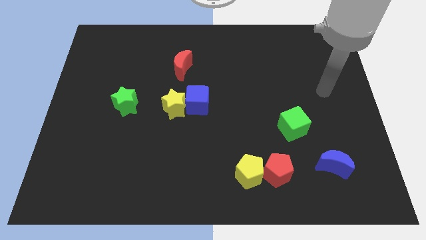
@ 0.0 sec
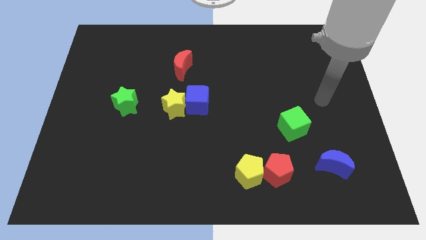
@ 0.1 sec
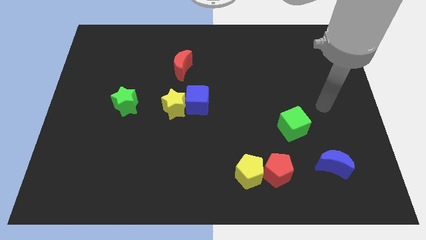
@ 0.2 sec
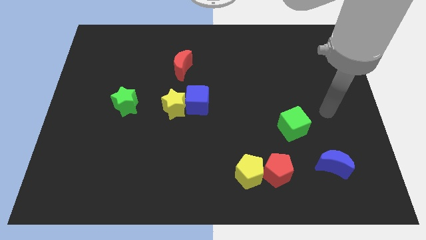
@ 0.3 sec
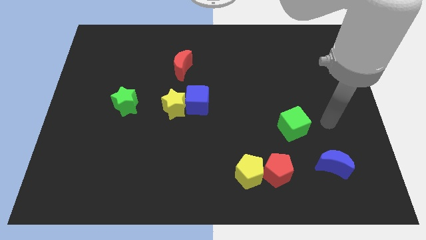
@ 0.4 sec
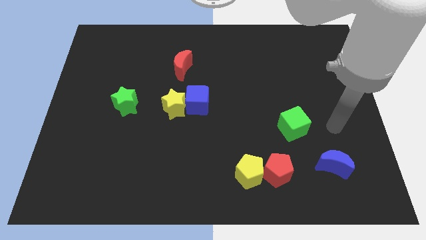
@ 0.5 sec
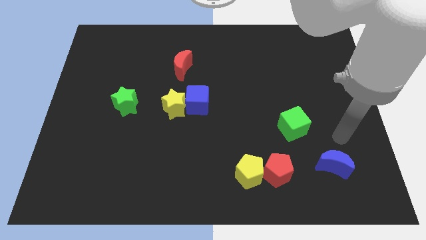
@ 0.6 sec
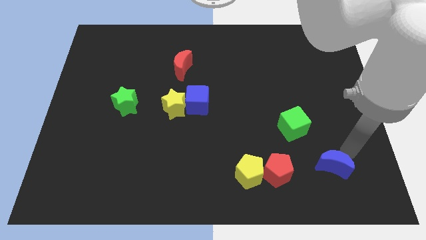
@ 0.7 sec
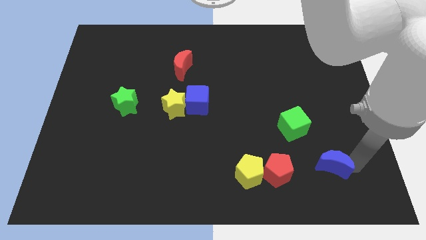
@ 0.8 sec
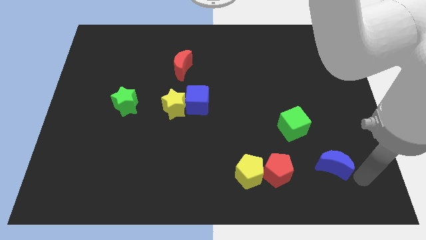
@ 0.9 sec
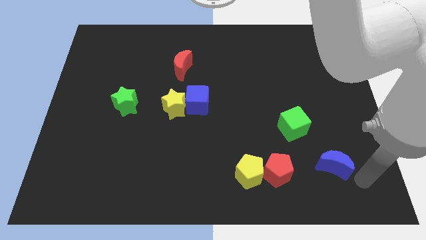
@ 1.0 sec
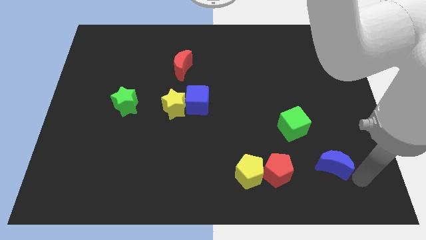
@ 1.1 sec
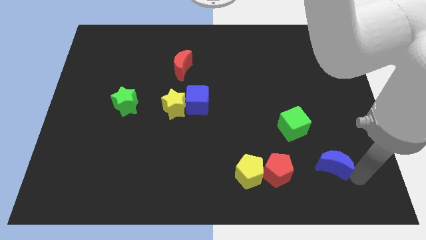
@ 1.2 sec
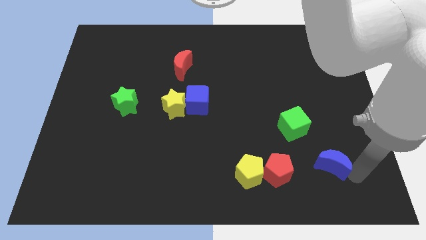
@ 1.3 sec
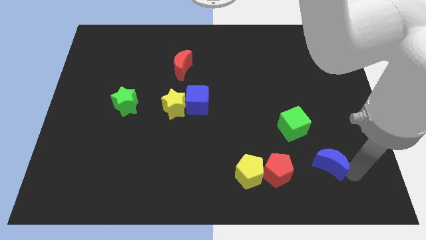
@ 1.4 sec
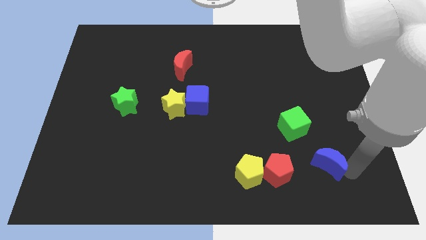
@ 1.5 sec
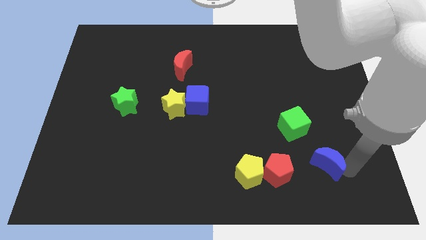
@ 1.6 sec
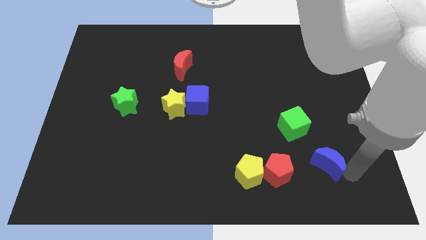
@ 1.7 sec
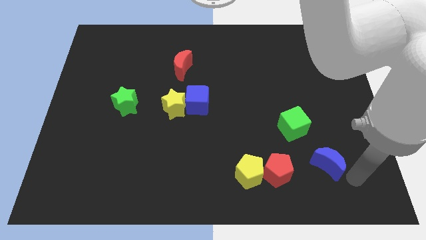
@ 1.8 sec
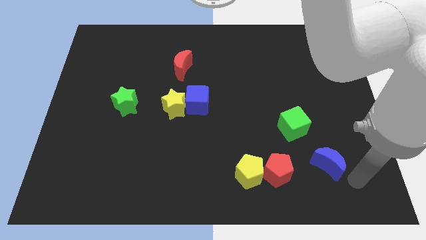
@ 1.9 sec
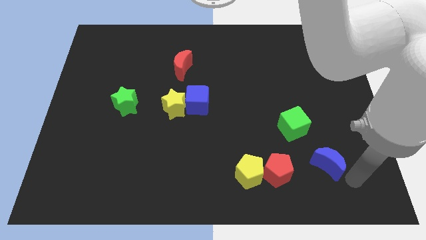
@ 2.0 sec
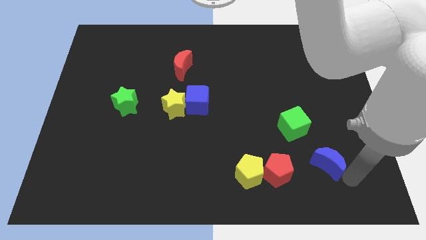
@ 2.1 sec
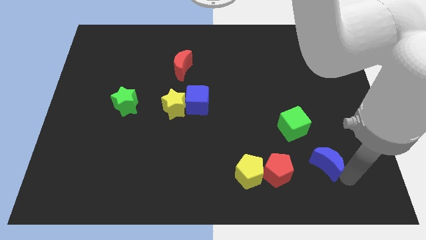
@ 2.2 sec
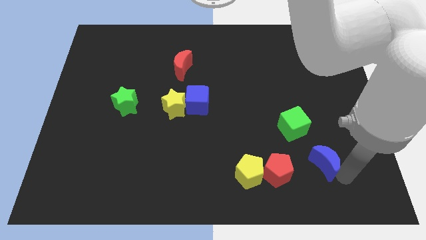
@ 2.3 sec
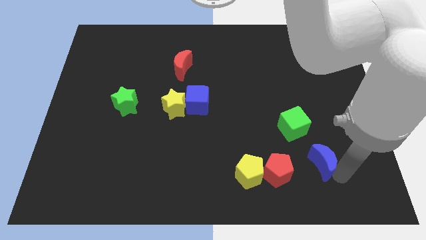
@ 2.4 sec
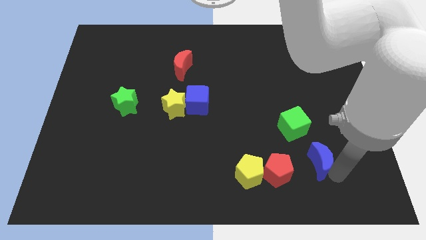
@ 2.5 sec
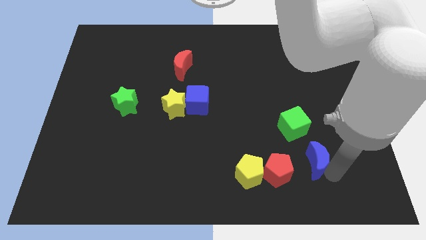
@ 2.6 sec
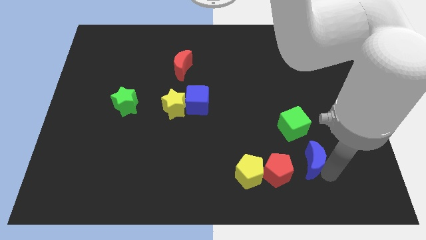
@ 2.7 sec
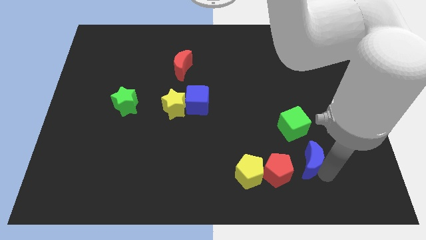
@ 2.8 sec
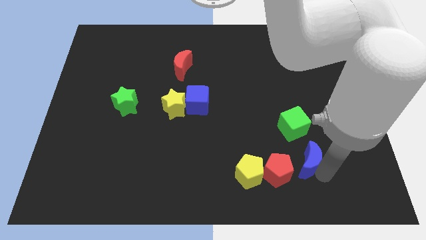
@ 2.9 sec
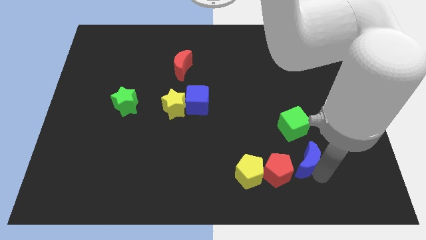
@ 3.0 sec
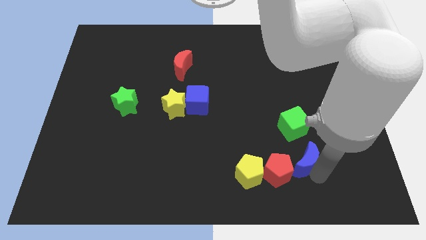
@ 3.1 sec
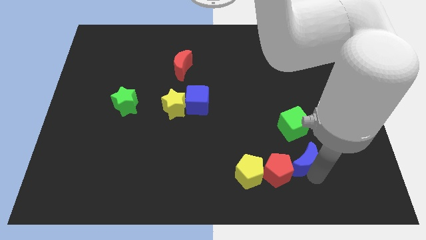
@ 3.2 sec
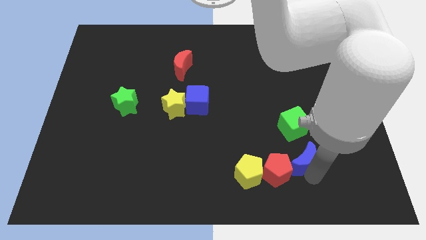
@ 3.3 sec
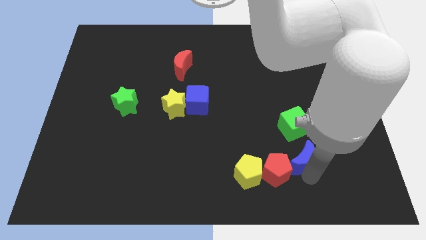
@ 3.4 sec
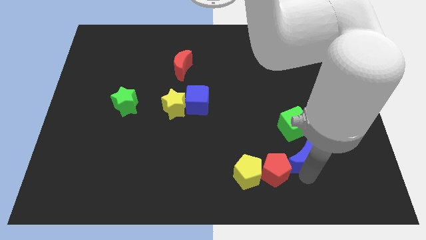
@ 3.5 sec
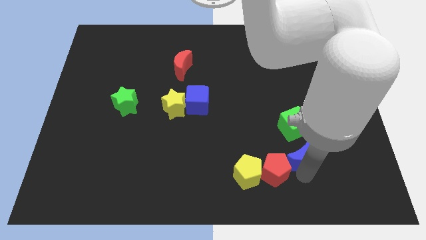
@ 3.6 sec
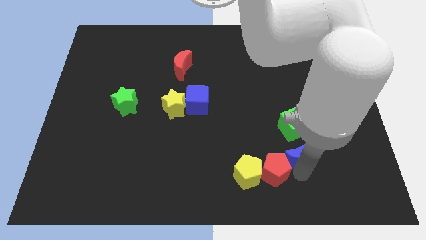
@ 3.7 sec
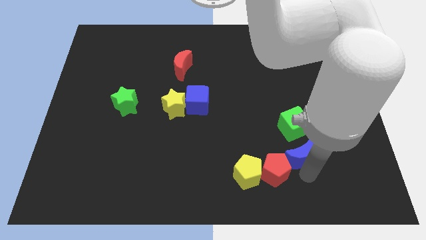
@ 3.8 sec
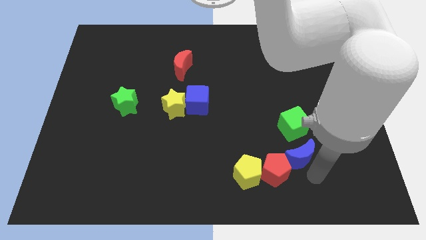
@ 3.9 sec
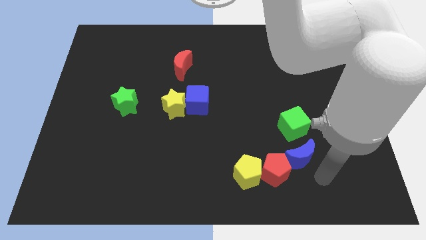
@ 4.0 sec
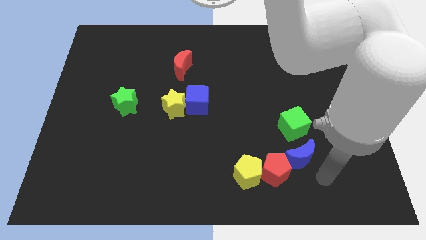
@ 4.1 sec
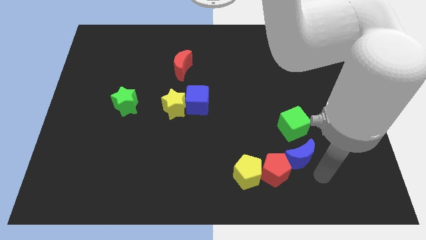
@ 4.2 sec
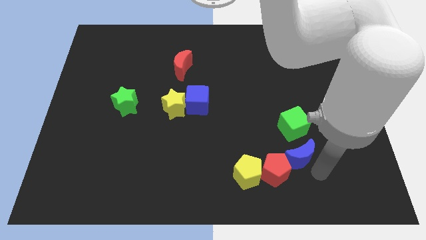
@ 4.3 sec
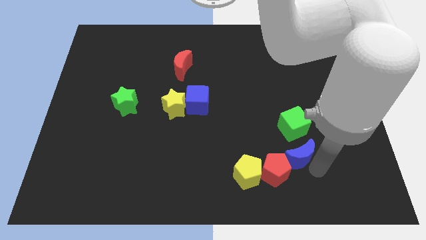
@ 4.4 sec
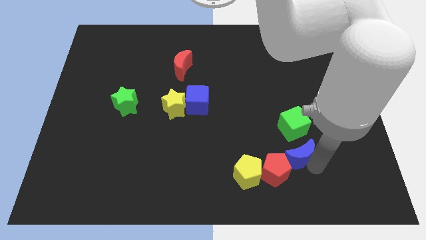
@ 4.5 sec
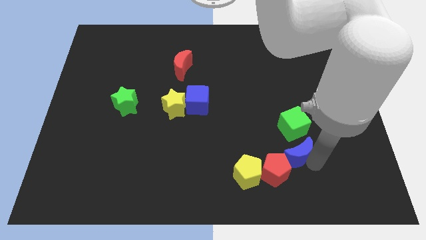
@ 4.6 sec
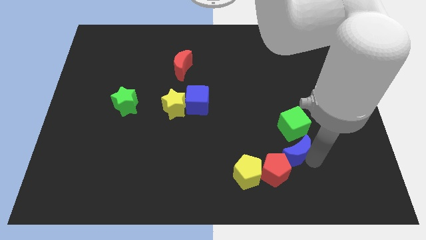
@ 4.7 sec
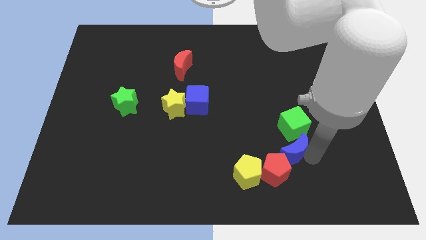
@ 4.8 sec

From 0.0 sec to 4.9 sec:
slightly slide the blue moon upwards and left

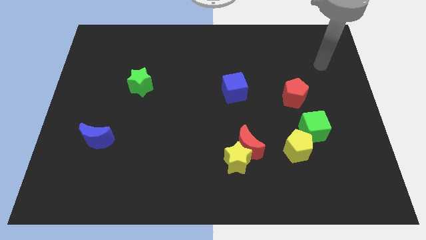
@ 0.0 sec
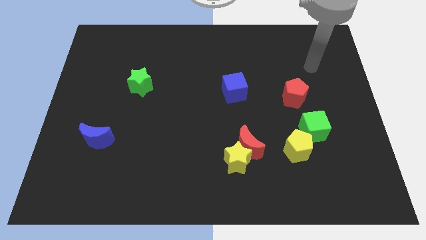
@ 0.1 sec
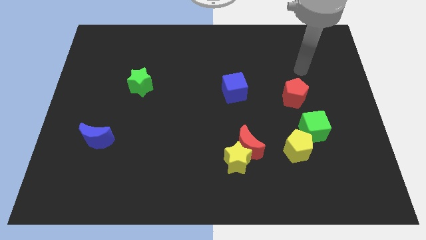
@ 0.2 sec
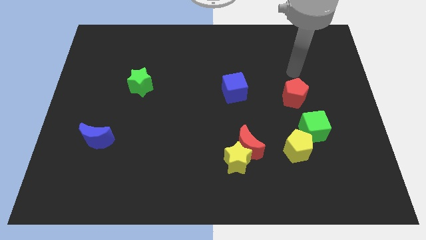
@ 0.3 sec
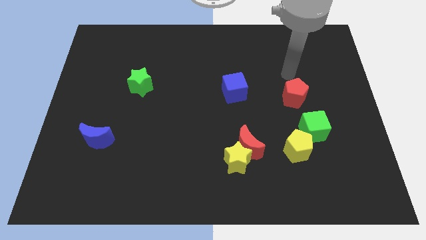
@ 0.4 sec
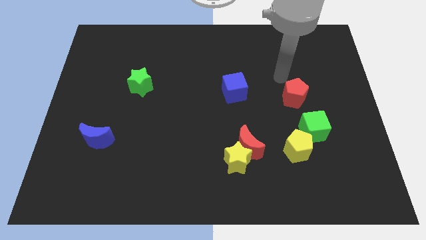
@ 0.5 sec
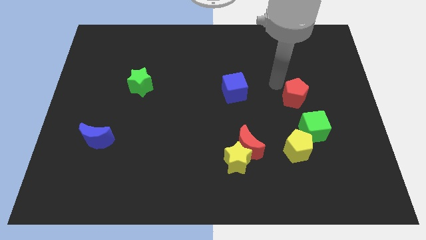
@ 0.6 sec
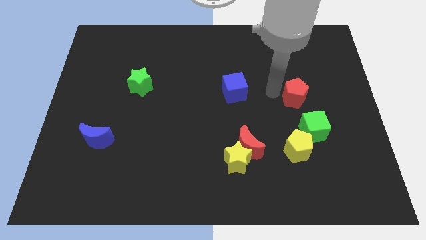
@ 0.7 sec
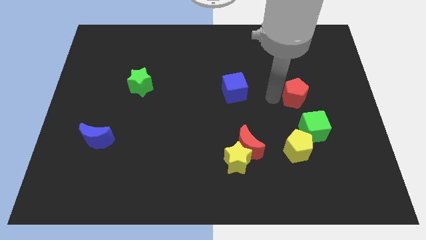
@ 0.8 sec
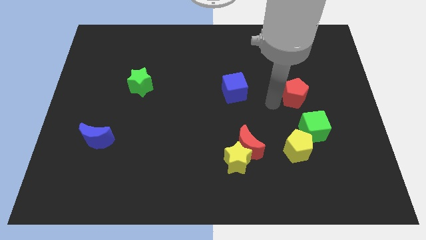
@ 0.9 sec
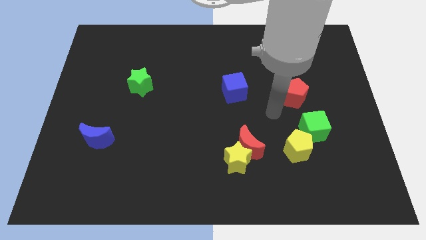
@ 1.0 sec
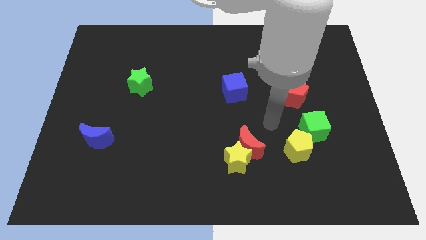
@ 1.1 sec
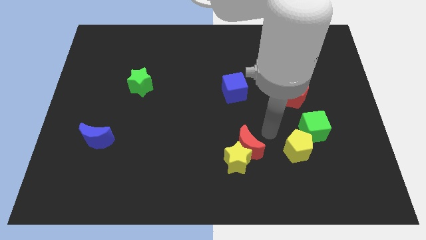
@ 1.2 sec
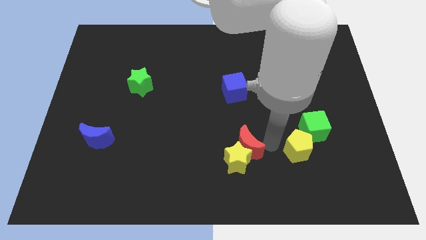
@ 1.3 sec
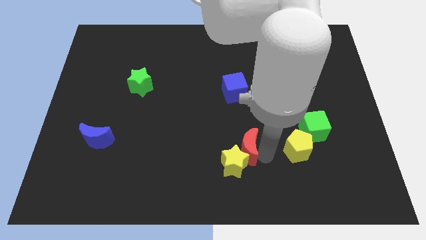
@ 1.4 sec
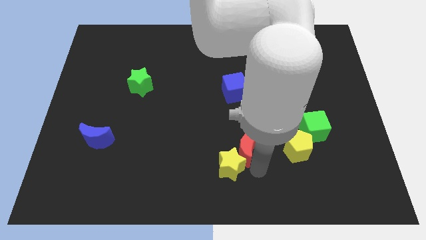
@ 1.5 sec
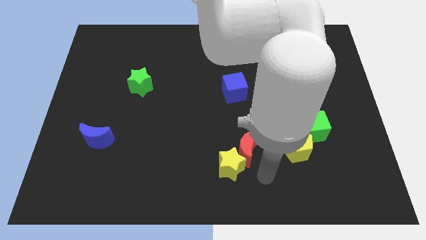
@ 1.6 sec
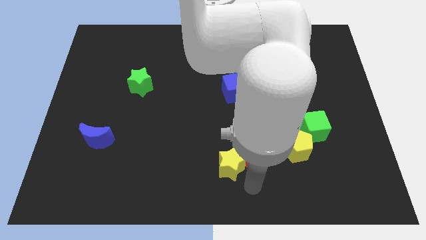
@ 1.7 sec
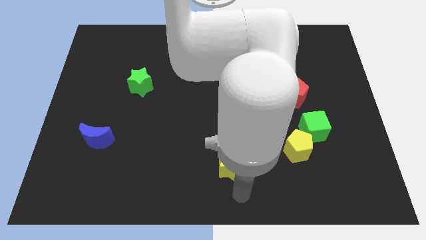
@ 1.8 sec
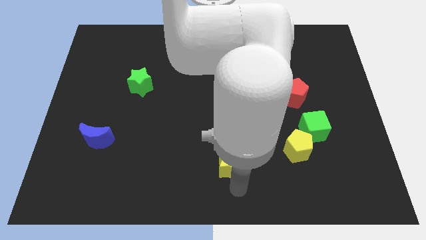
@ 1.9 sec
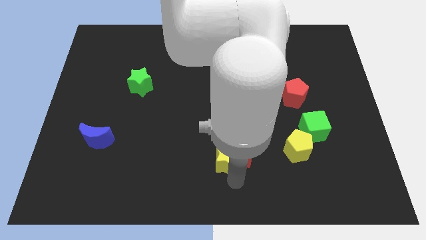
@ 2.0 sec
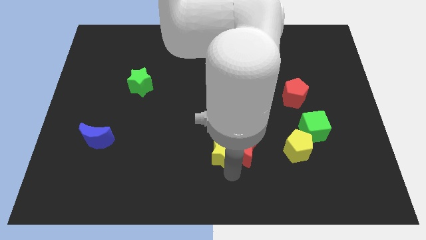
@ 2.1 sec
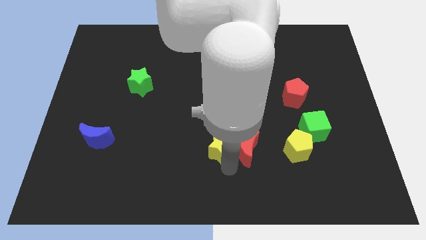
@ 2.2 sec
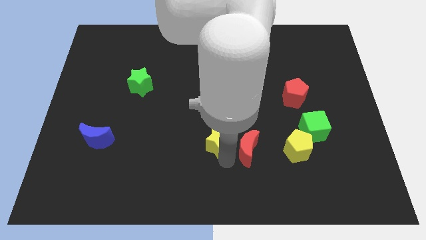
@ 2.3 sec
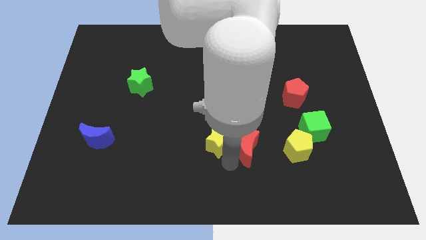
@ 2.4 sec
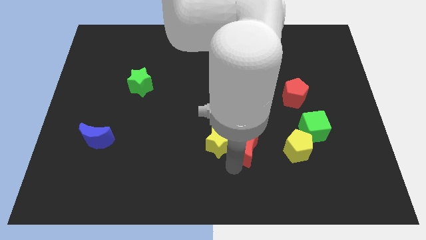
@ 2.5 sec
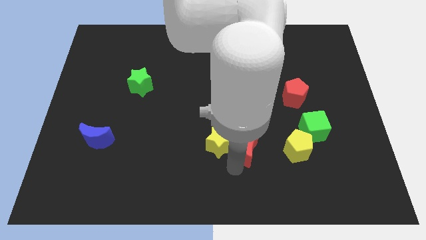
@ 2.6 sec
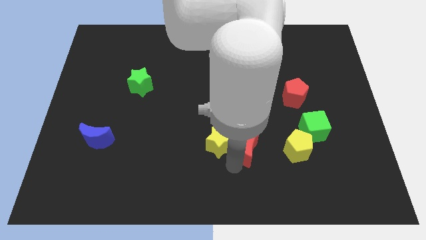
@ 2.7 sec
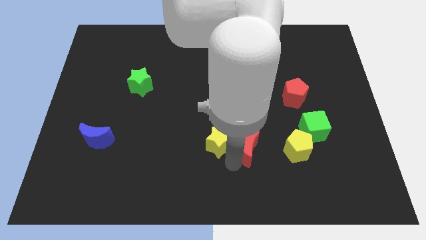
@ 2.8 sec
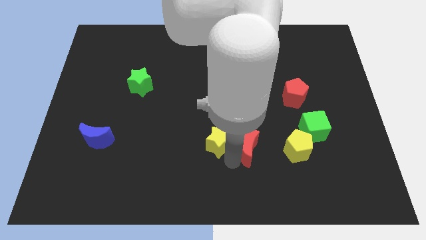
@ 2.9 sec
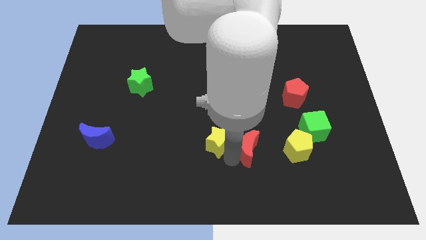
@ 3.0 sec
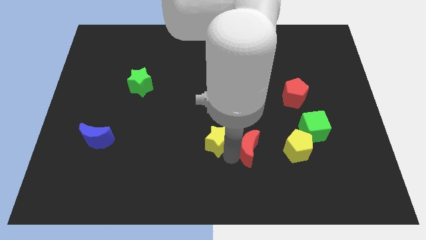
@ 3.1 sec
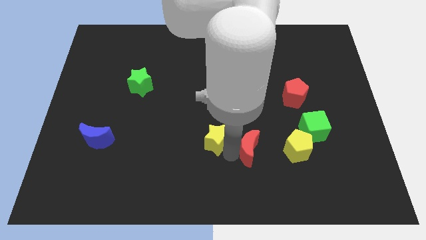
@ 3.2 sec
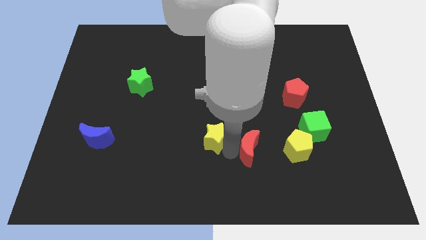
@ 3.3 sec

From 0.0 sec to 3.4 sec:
slightly slide the yellow star upwards and left
